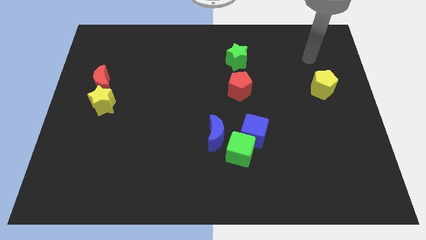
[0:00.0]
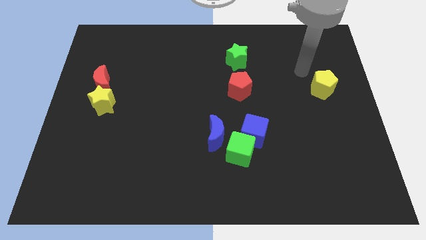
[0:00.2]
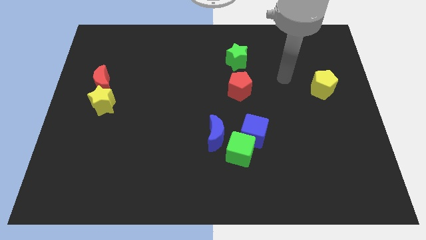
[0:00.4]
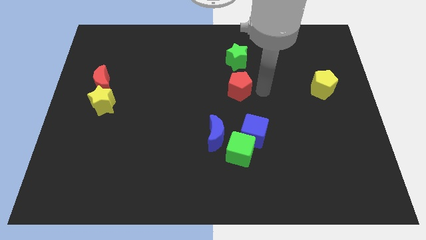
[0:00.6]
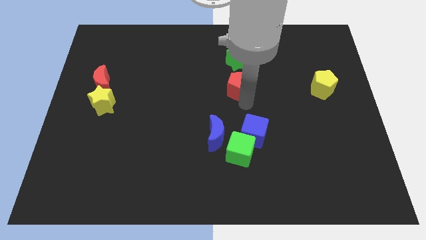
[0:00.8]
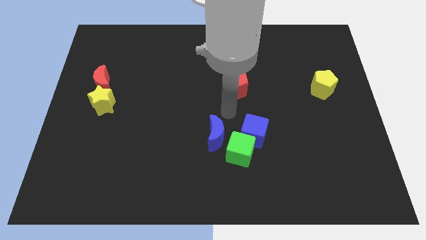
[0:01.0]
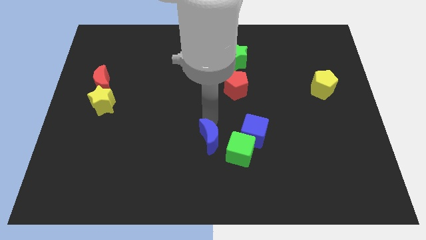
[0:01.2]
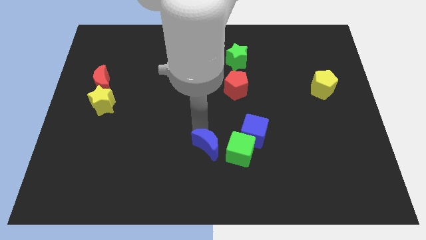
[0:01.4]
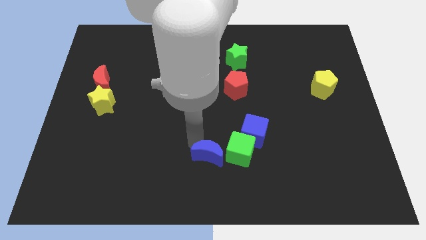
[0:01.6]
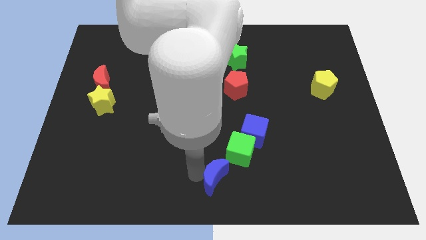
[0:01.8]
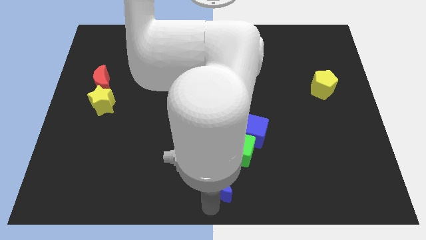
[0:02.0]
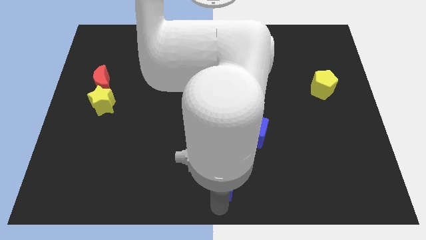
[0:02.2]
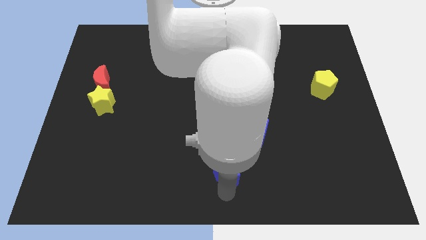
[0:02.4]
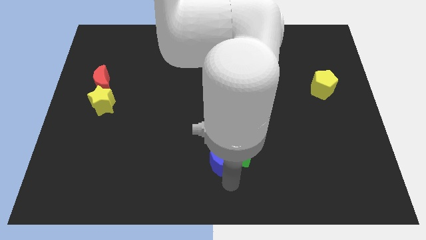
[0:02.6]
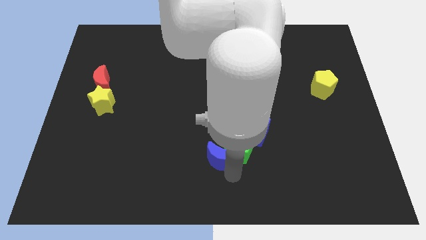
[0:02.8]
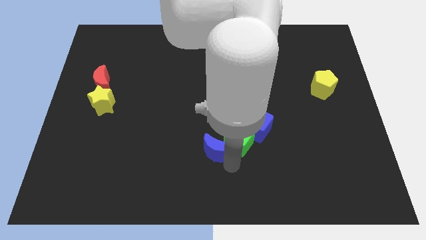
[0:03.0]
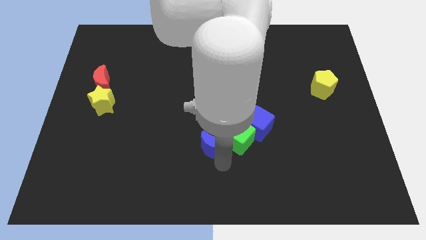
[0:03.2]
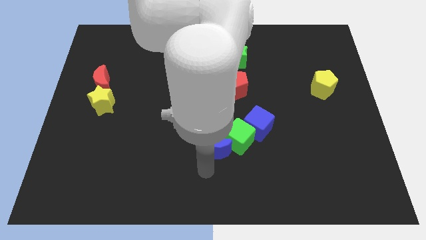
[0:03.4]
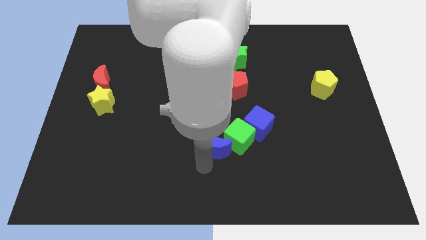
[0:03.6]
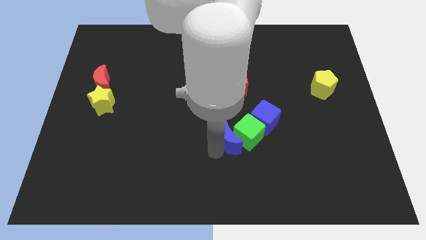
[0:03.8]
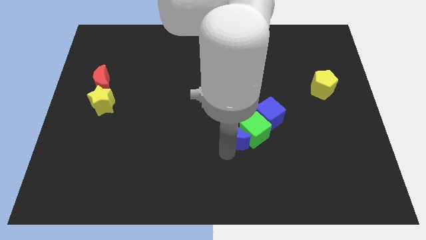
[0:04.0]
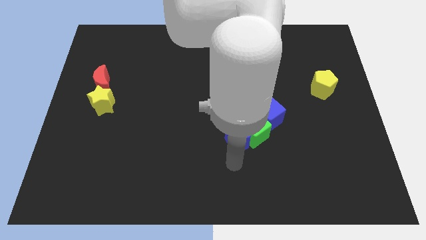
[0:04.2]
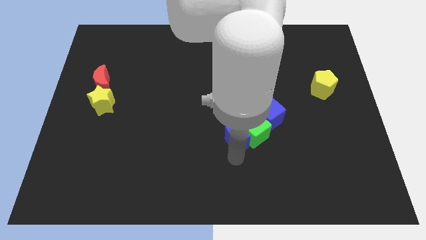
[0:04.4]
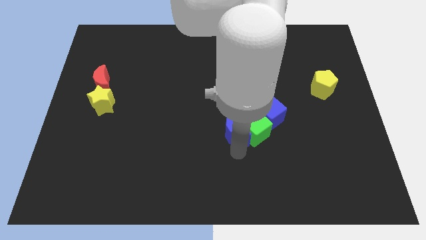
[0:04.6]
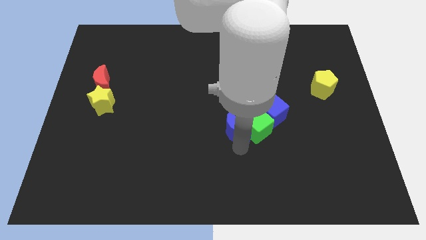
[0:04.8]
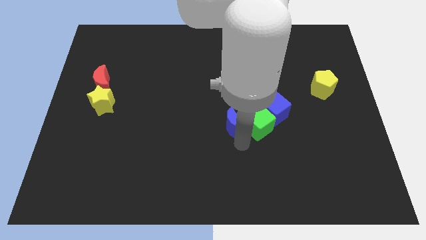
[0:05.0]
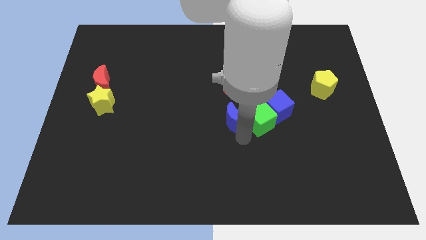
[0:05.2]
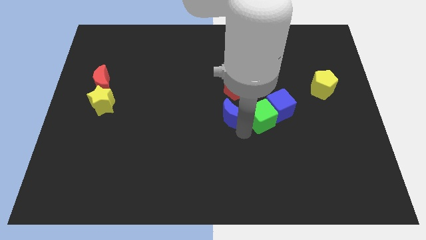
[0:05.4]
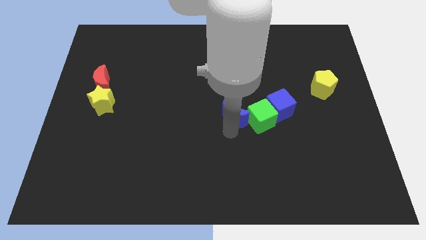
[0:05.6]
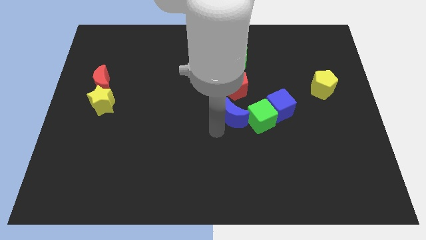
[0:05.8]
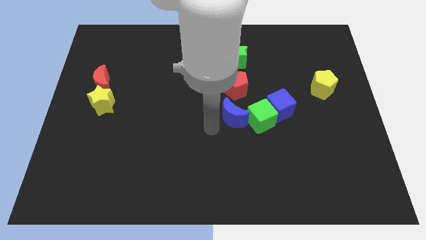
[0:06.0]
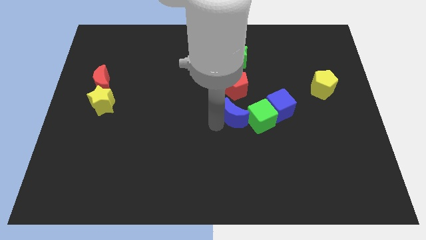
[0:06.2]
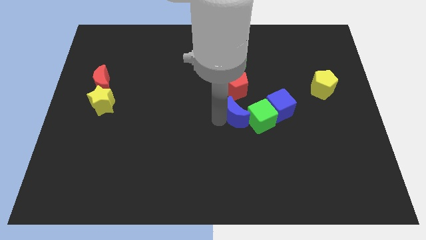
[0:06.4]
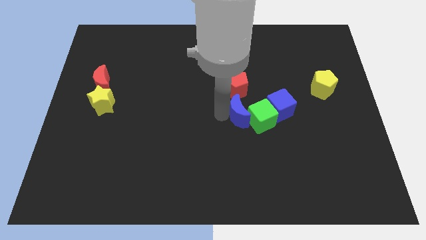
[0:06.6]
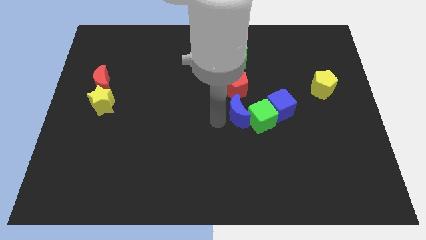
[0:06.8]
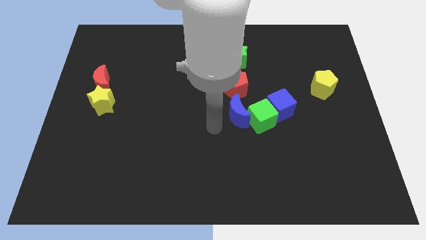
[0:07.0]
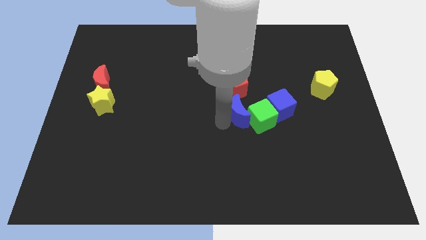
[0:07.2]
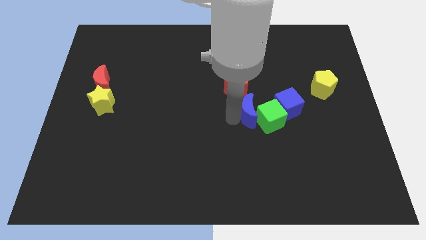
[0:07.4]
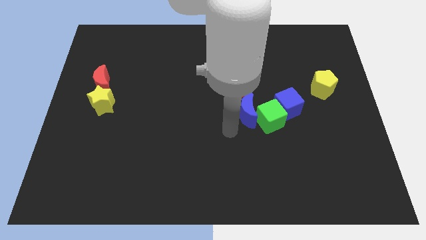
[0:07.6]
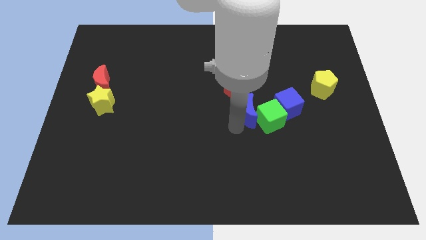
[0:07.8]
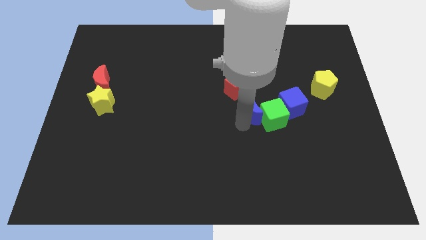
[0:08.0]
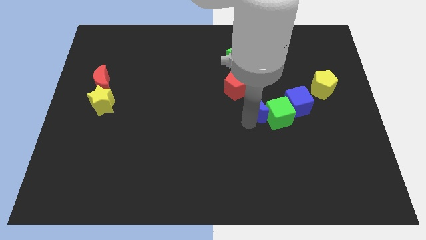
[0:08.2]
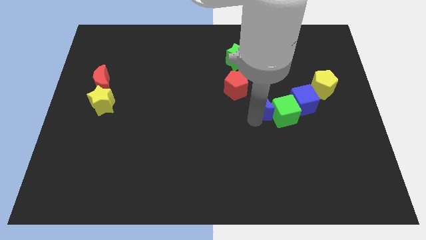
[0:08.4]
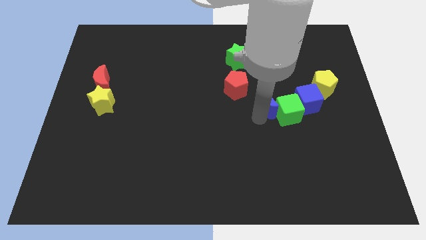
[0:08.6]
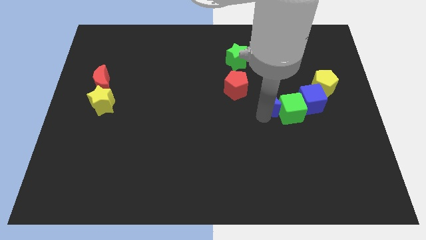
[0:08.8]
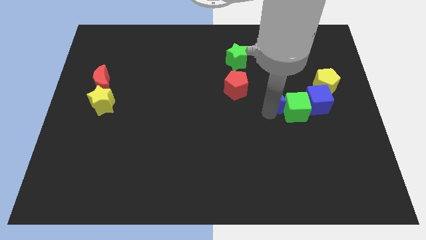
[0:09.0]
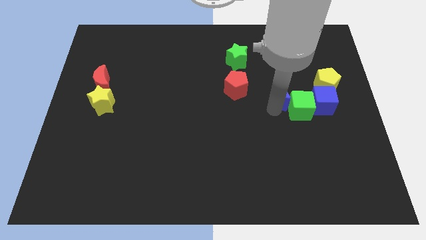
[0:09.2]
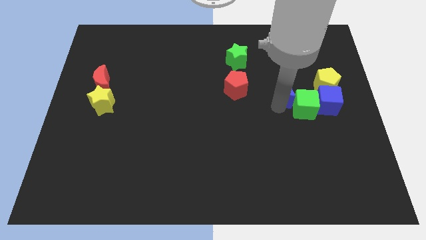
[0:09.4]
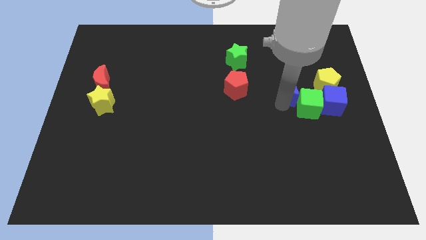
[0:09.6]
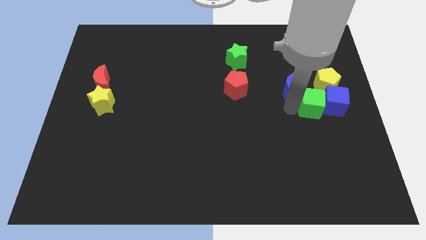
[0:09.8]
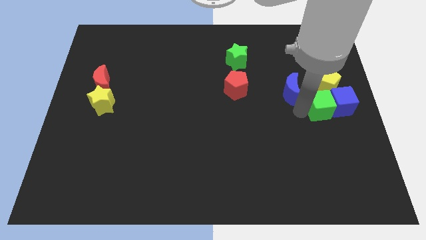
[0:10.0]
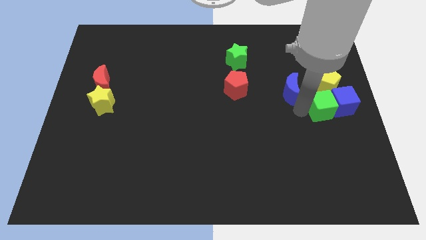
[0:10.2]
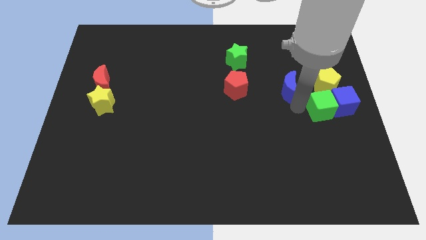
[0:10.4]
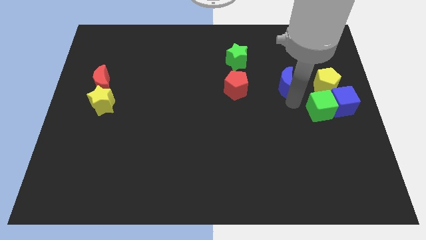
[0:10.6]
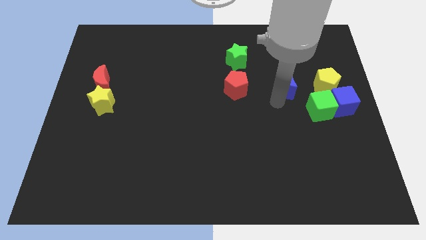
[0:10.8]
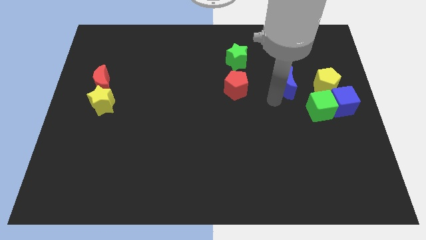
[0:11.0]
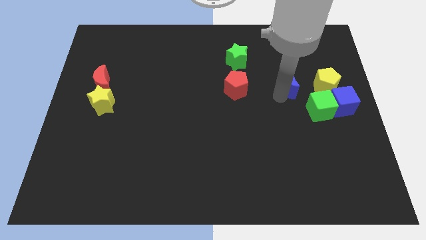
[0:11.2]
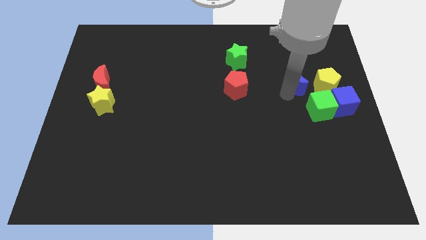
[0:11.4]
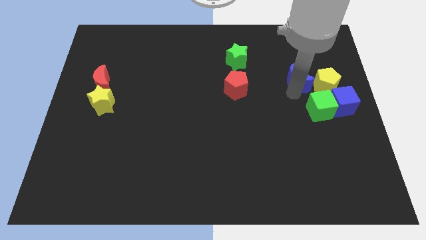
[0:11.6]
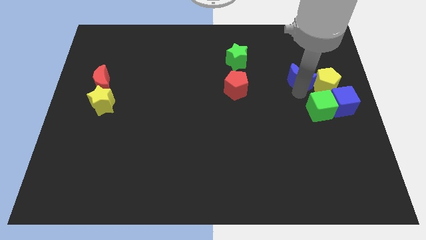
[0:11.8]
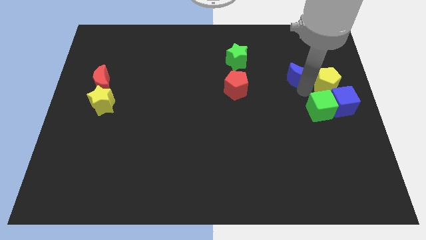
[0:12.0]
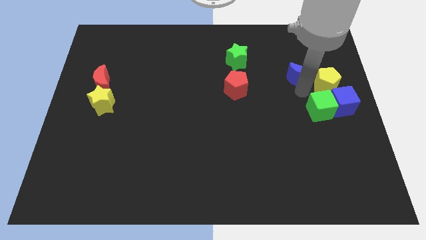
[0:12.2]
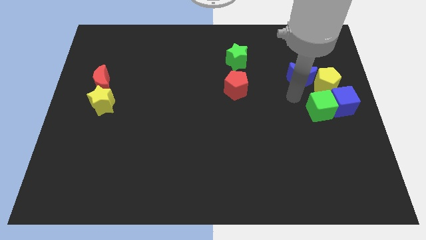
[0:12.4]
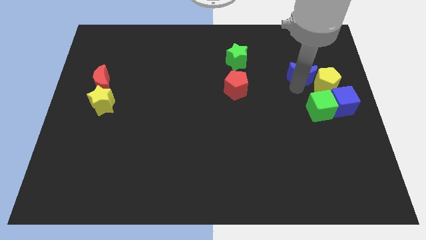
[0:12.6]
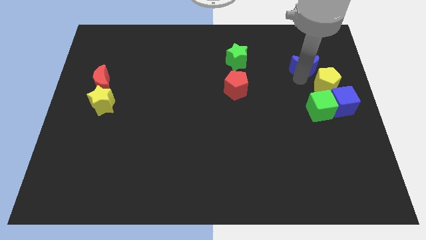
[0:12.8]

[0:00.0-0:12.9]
put the blue moon to the top side of the yellow pentagon

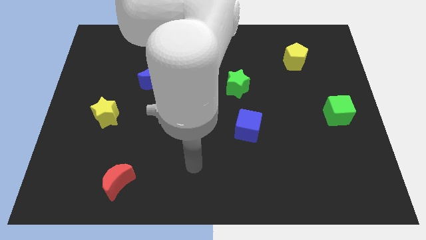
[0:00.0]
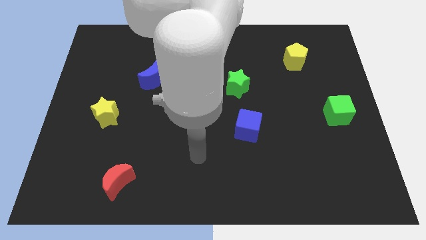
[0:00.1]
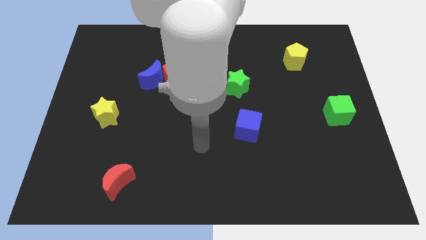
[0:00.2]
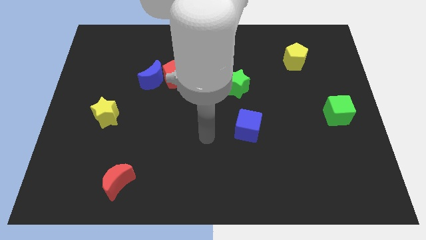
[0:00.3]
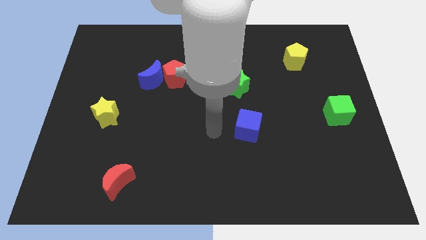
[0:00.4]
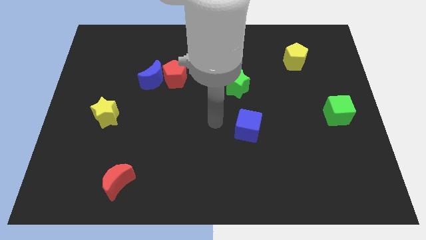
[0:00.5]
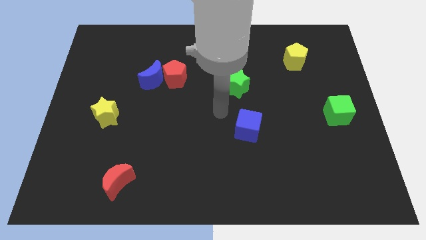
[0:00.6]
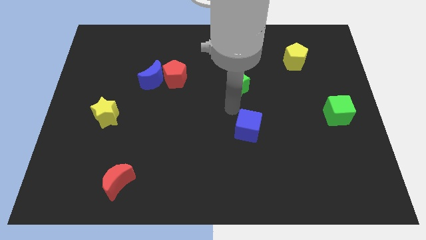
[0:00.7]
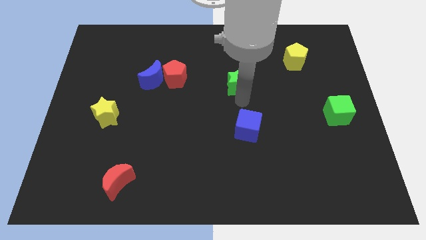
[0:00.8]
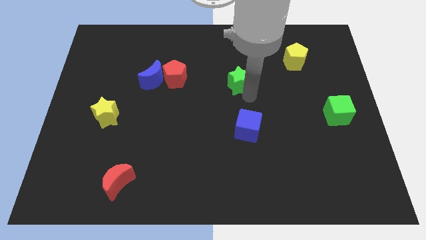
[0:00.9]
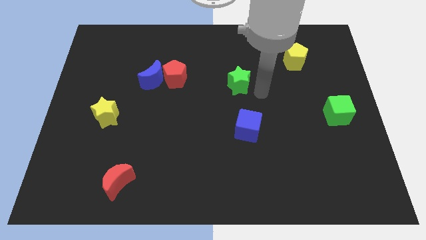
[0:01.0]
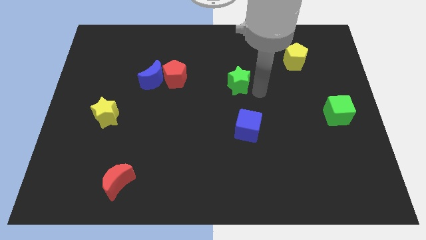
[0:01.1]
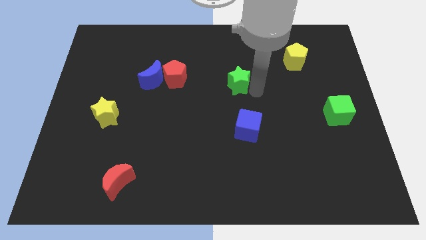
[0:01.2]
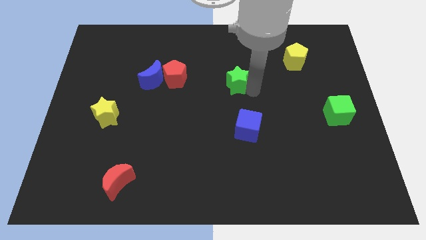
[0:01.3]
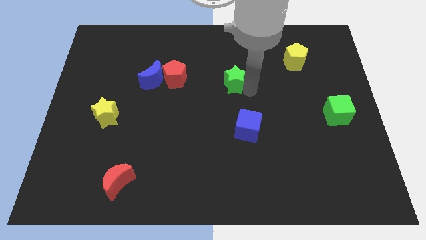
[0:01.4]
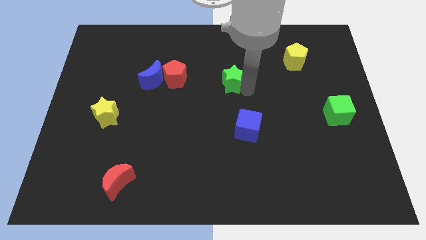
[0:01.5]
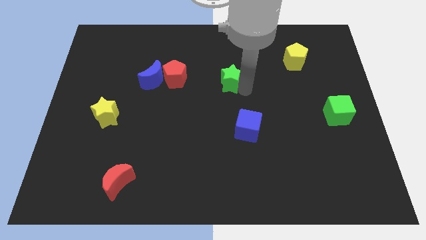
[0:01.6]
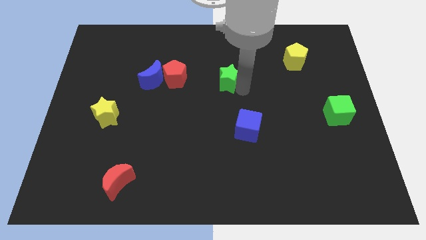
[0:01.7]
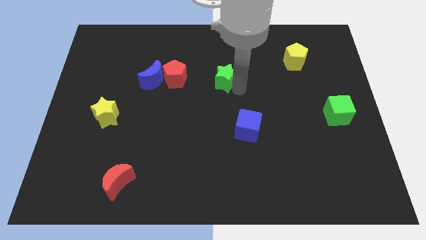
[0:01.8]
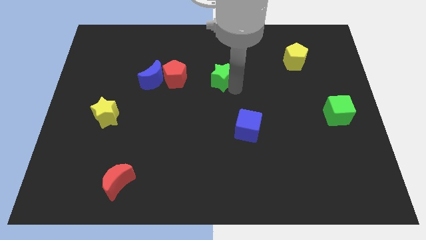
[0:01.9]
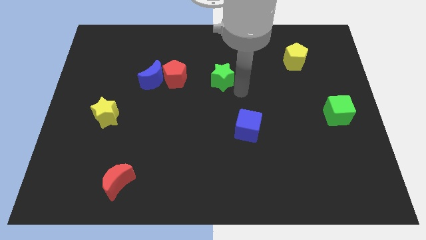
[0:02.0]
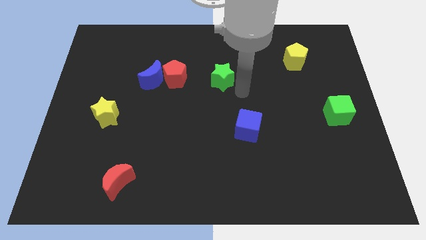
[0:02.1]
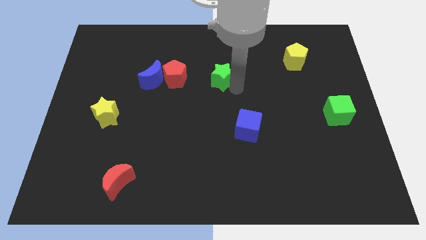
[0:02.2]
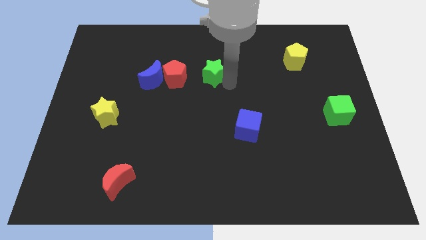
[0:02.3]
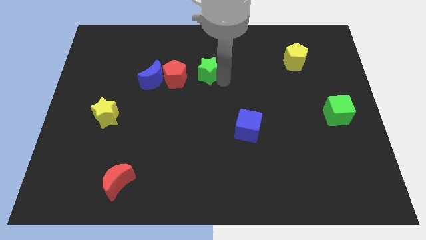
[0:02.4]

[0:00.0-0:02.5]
move the green star to the top right side of the red pentagon
